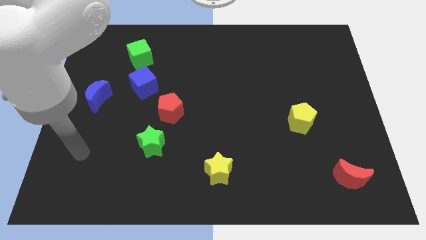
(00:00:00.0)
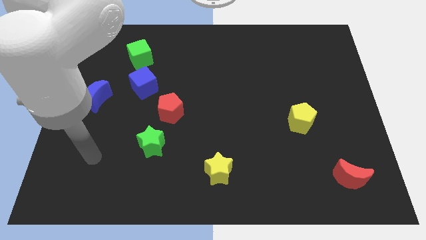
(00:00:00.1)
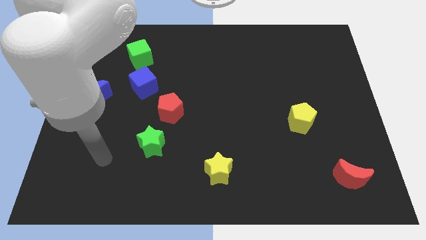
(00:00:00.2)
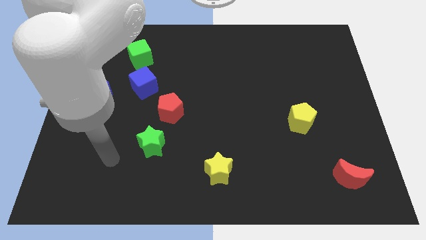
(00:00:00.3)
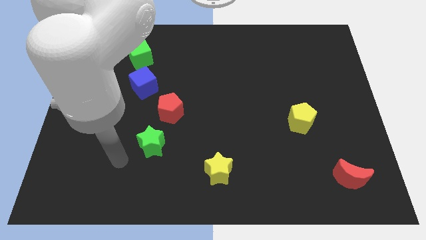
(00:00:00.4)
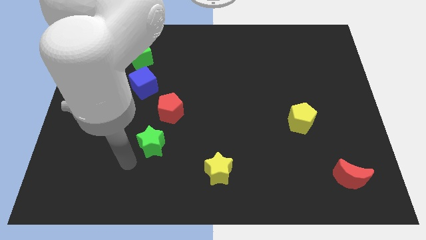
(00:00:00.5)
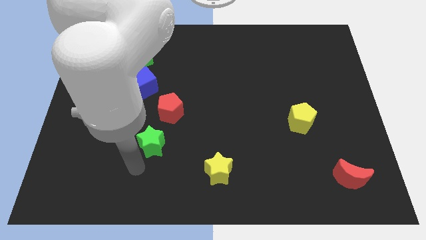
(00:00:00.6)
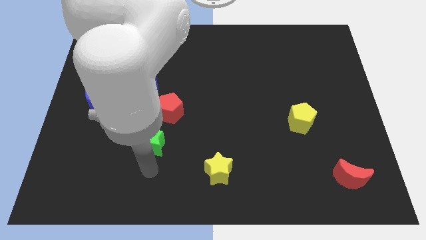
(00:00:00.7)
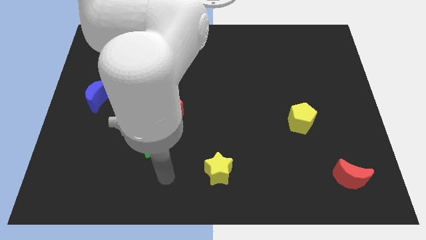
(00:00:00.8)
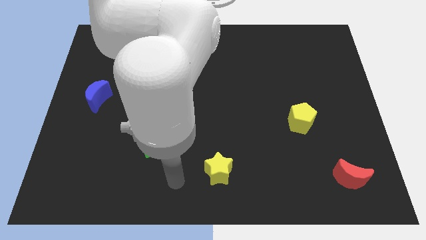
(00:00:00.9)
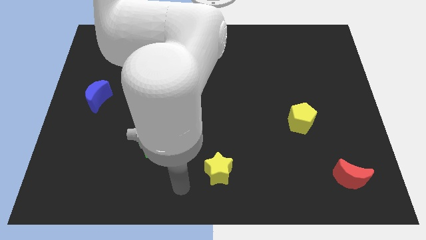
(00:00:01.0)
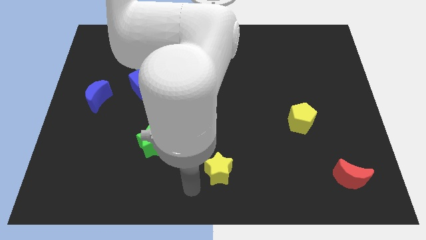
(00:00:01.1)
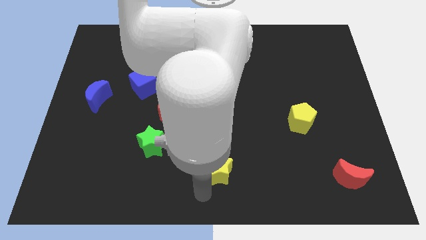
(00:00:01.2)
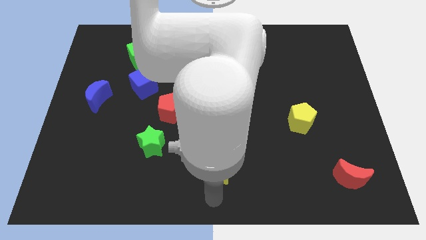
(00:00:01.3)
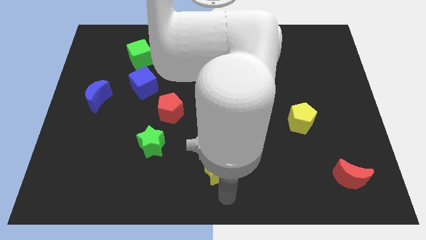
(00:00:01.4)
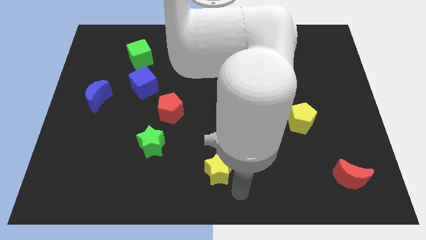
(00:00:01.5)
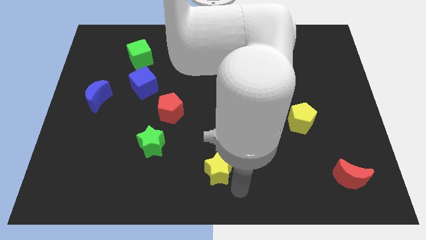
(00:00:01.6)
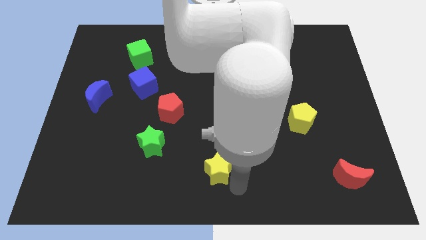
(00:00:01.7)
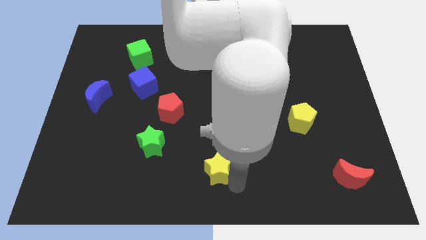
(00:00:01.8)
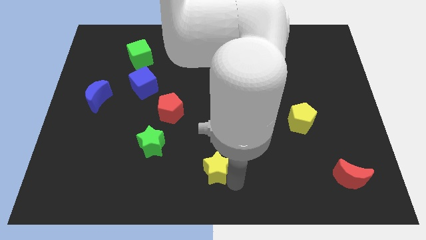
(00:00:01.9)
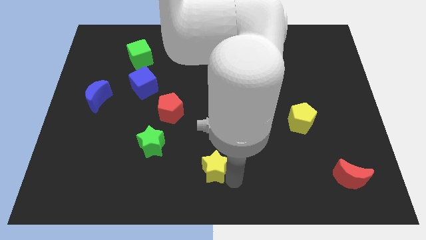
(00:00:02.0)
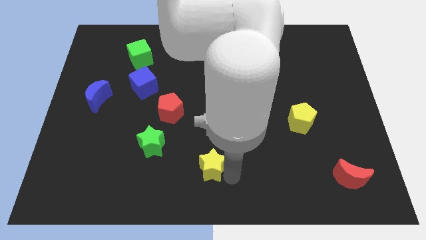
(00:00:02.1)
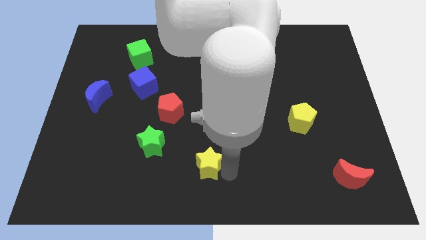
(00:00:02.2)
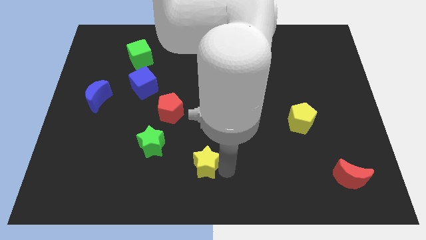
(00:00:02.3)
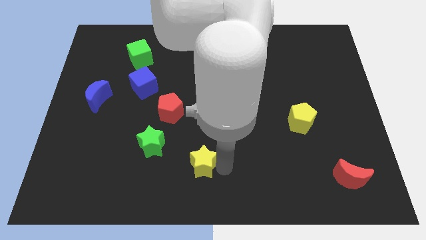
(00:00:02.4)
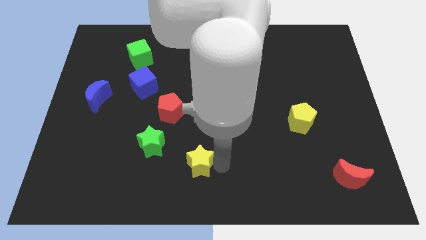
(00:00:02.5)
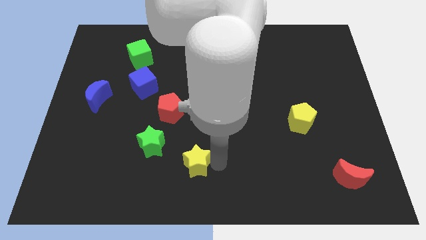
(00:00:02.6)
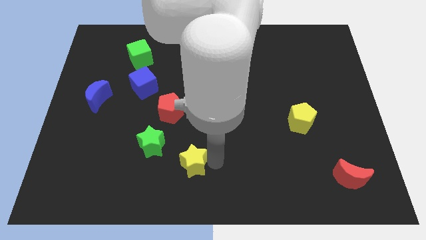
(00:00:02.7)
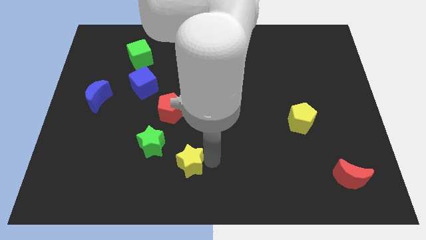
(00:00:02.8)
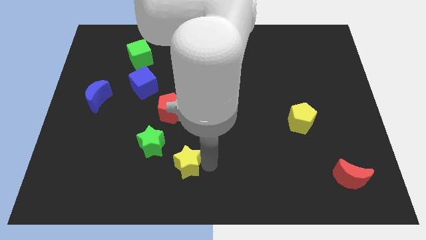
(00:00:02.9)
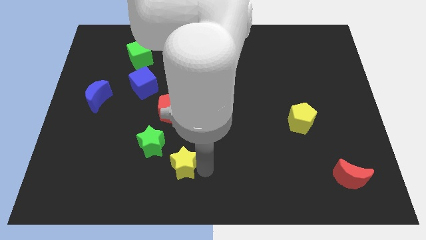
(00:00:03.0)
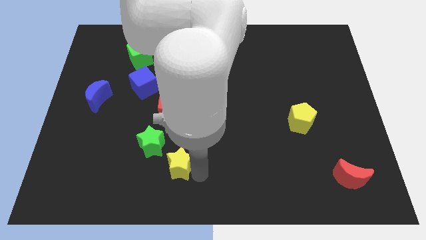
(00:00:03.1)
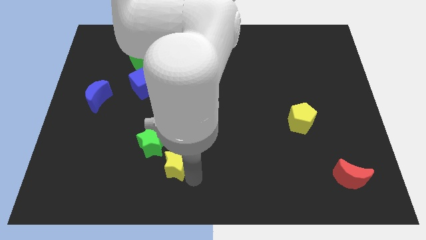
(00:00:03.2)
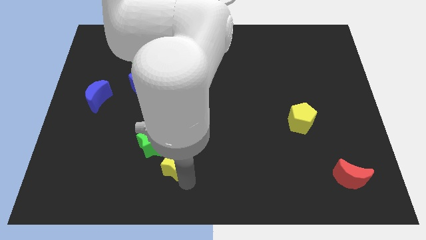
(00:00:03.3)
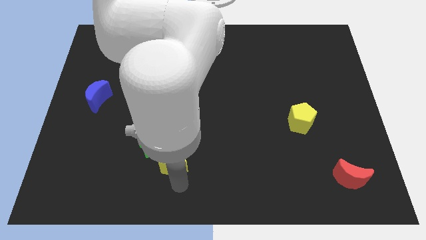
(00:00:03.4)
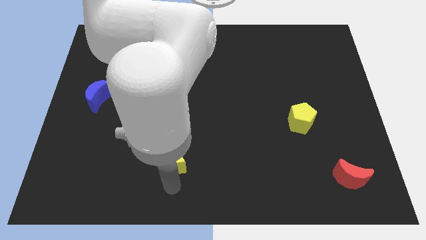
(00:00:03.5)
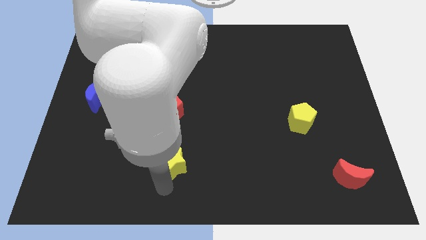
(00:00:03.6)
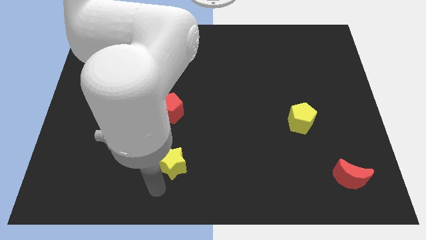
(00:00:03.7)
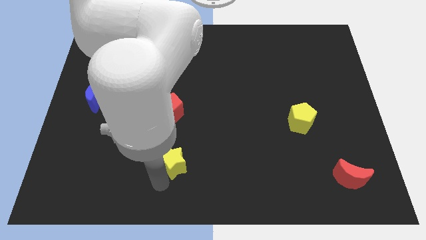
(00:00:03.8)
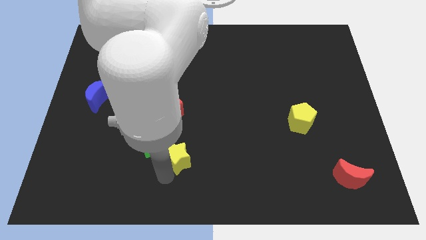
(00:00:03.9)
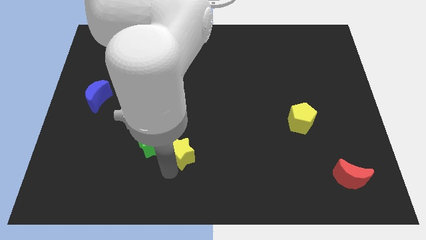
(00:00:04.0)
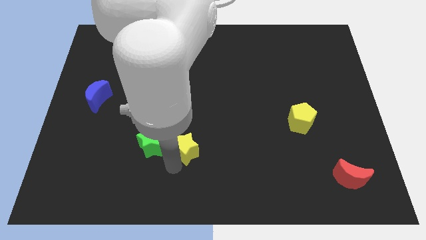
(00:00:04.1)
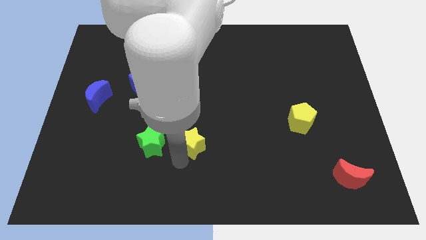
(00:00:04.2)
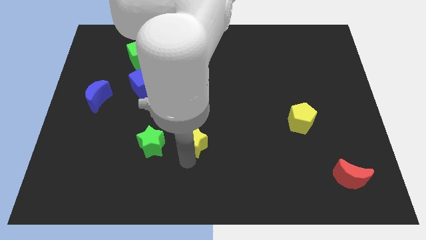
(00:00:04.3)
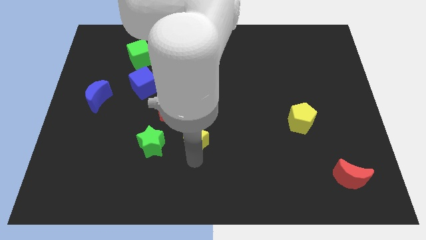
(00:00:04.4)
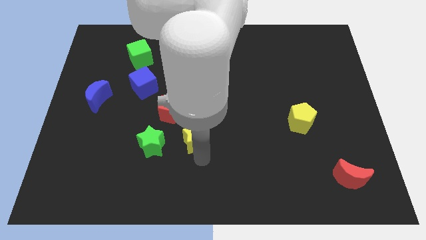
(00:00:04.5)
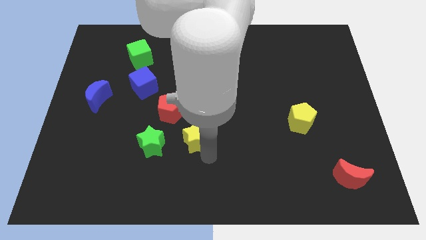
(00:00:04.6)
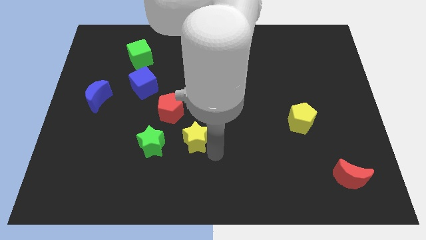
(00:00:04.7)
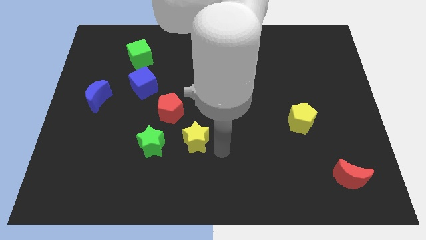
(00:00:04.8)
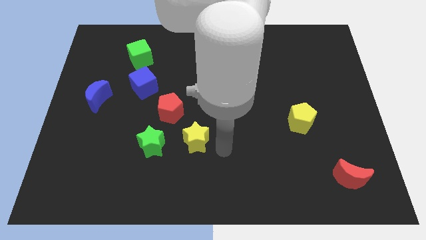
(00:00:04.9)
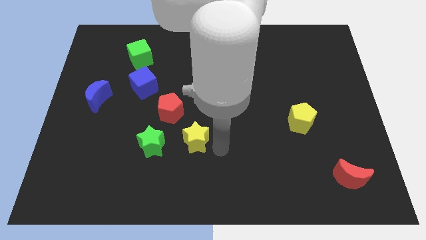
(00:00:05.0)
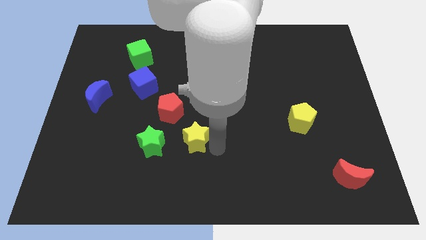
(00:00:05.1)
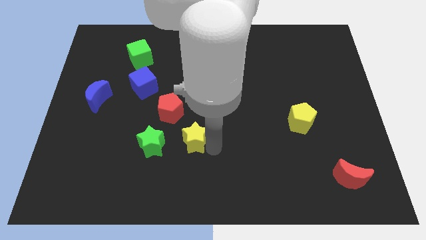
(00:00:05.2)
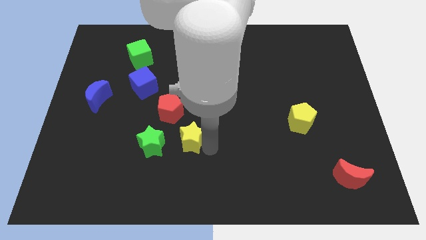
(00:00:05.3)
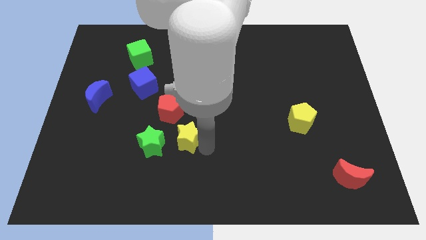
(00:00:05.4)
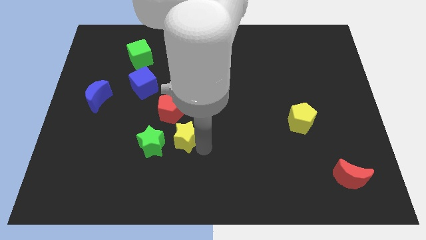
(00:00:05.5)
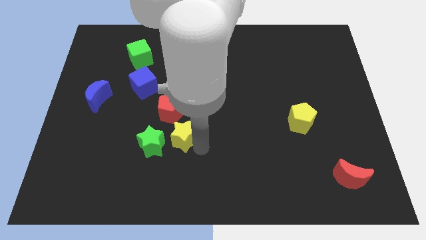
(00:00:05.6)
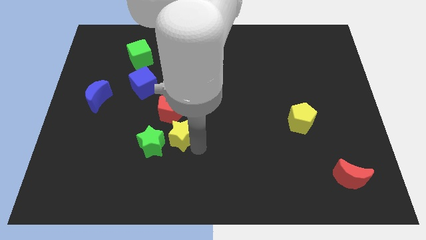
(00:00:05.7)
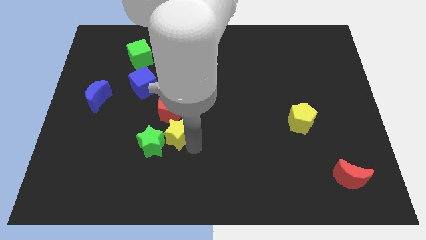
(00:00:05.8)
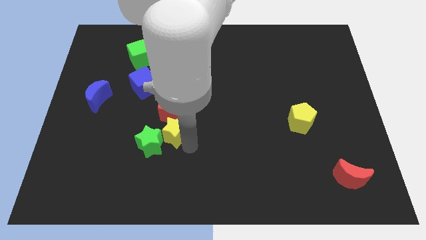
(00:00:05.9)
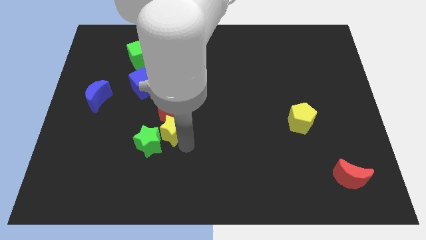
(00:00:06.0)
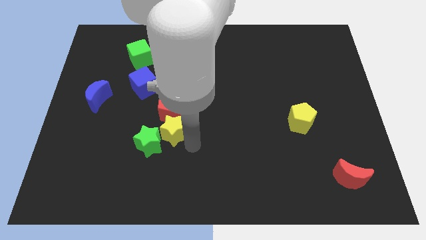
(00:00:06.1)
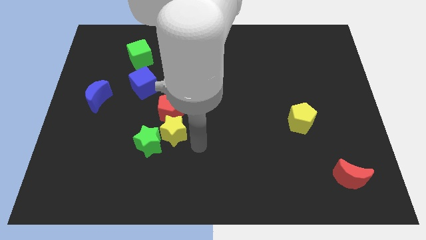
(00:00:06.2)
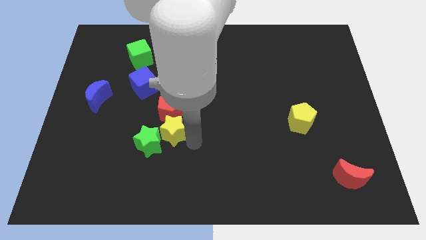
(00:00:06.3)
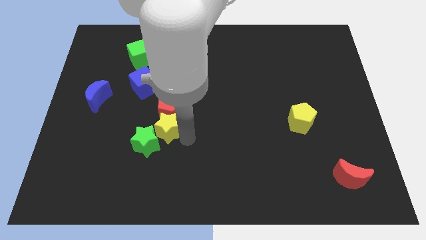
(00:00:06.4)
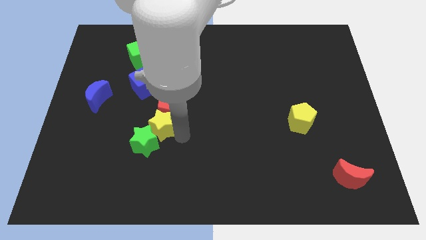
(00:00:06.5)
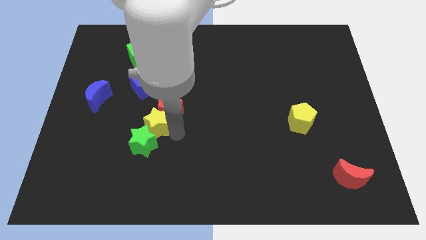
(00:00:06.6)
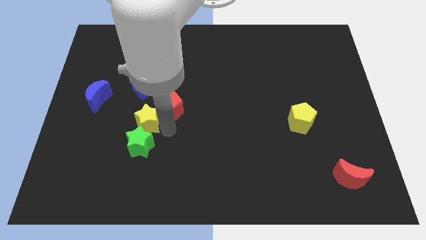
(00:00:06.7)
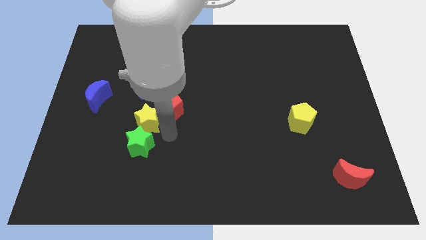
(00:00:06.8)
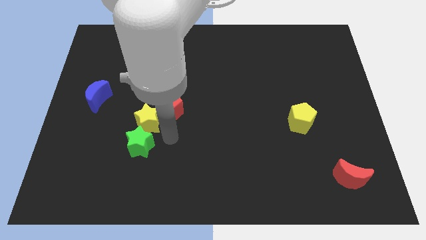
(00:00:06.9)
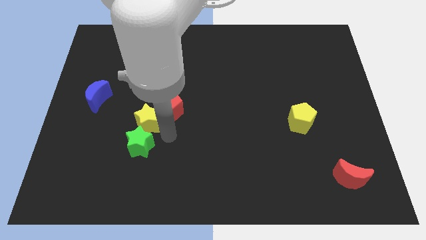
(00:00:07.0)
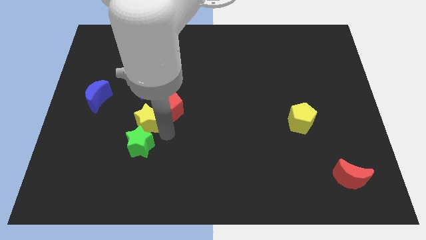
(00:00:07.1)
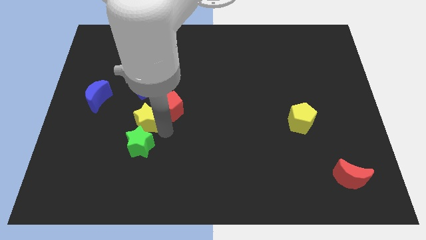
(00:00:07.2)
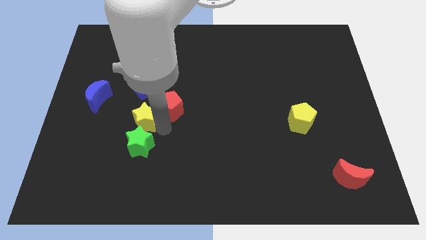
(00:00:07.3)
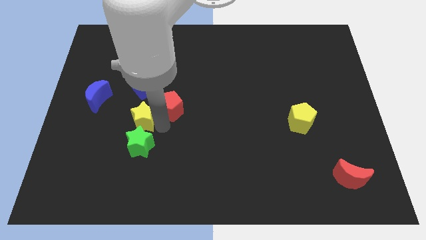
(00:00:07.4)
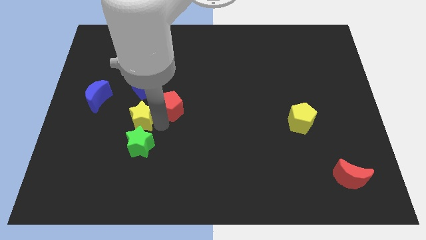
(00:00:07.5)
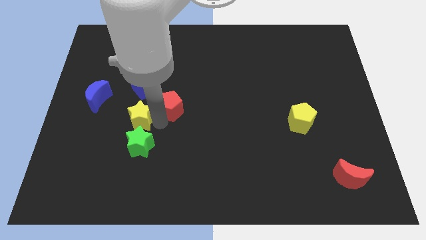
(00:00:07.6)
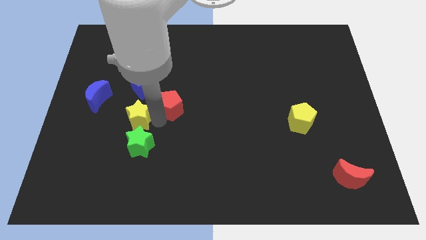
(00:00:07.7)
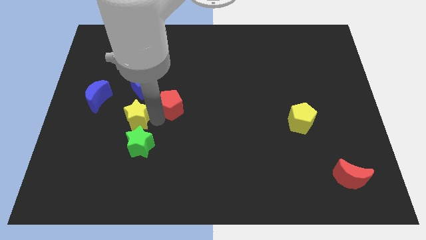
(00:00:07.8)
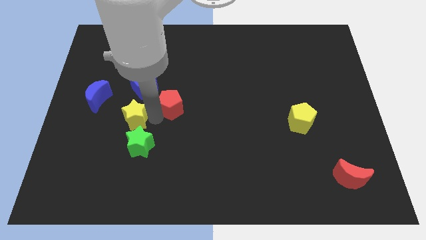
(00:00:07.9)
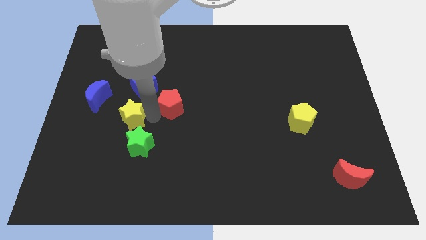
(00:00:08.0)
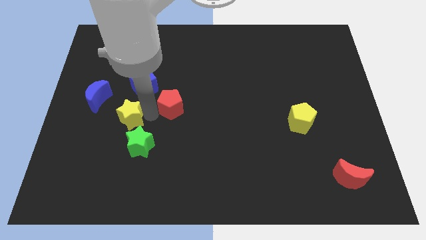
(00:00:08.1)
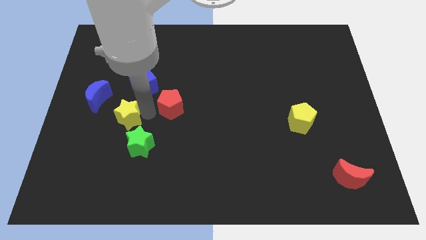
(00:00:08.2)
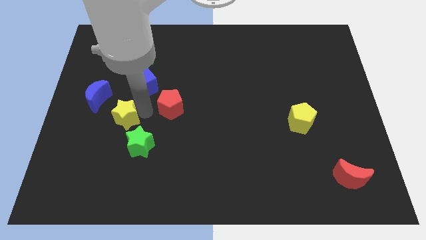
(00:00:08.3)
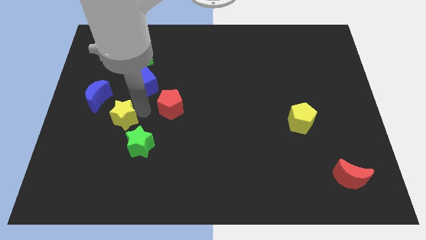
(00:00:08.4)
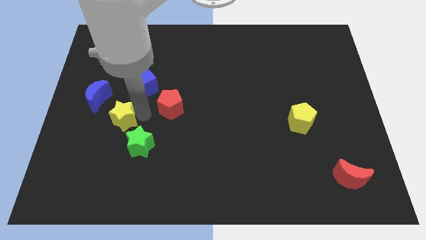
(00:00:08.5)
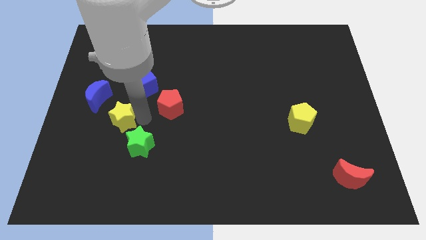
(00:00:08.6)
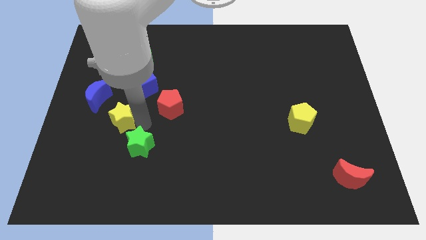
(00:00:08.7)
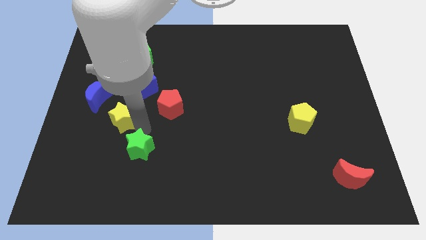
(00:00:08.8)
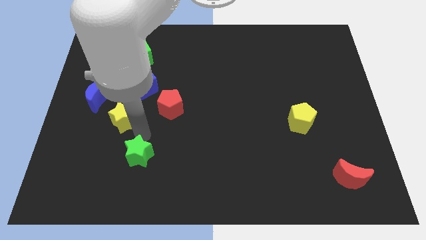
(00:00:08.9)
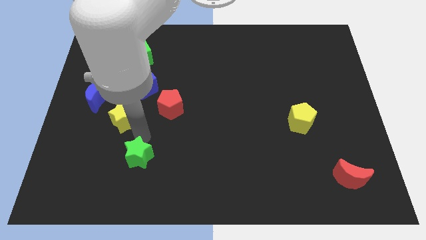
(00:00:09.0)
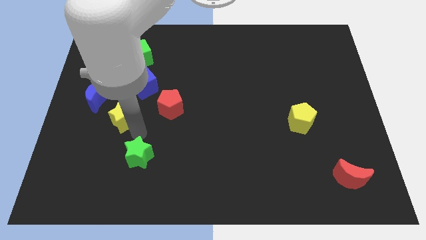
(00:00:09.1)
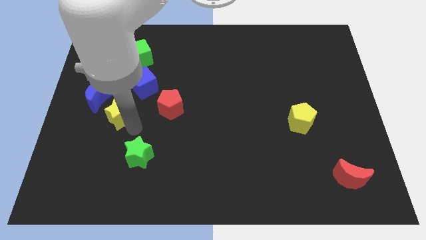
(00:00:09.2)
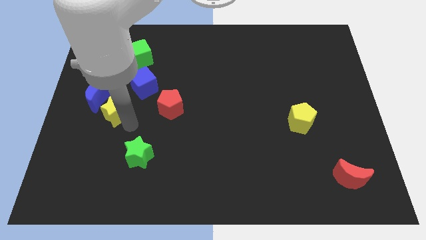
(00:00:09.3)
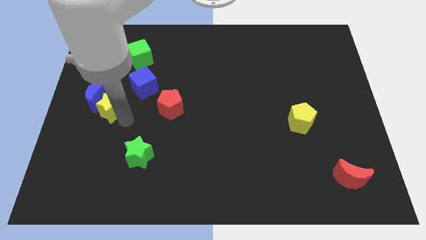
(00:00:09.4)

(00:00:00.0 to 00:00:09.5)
slide the yellow star to the blue moon
